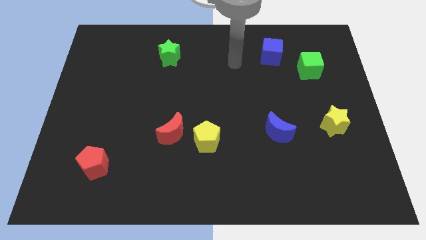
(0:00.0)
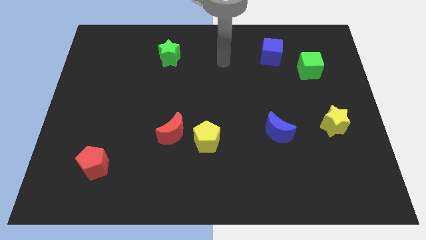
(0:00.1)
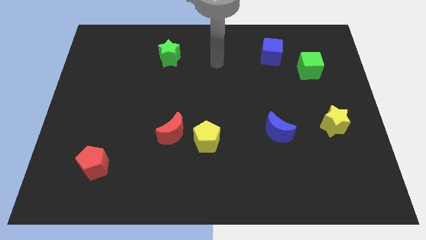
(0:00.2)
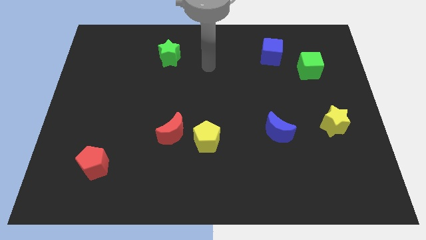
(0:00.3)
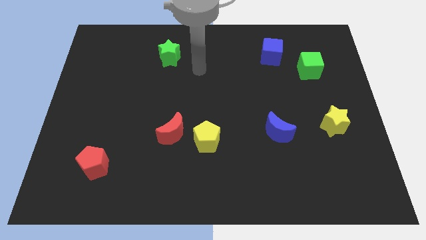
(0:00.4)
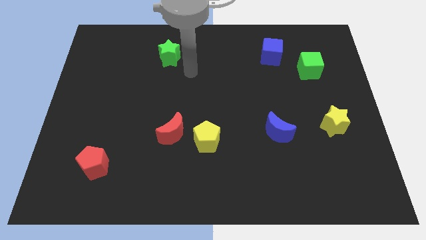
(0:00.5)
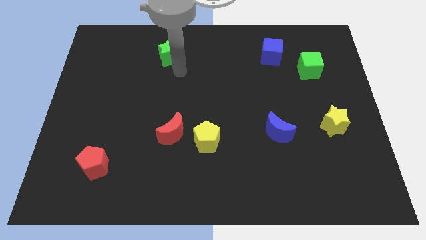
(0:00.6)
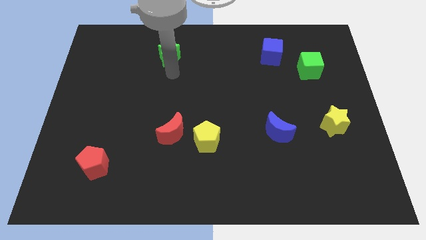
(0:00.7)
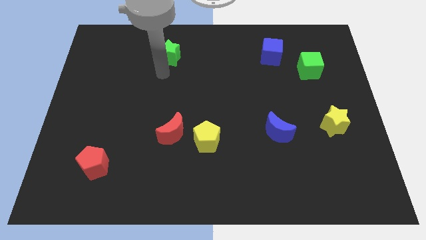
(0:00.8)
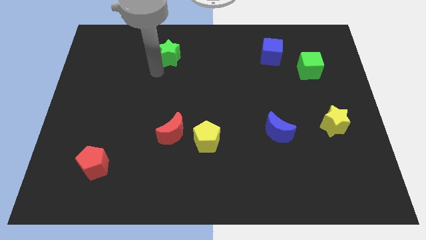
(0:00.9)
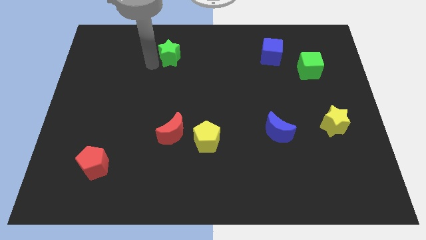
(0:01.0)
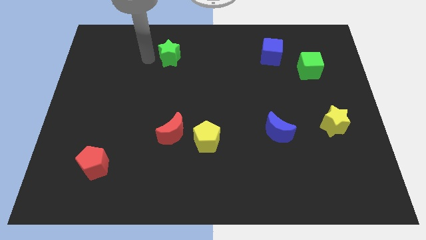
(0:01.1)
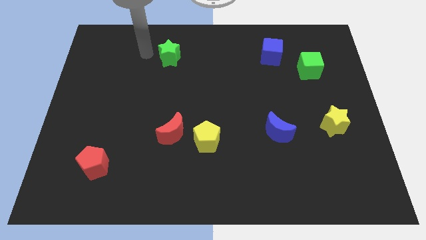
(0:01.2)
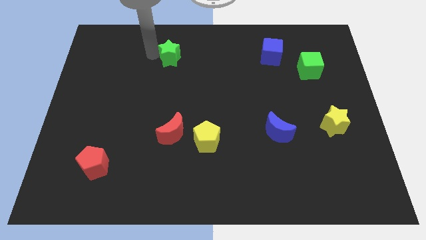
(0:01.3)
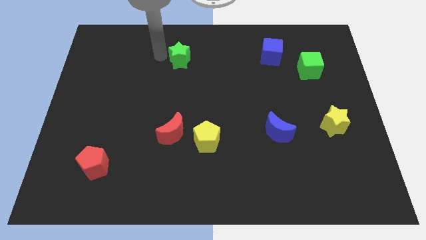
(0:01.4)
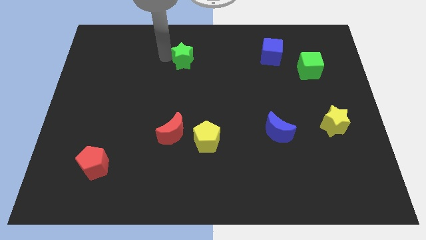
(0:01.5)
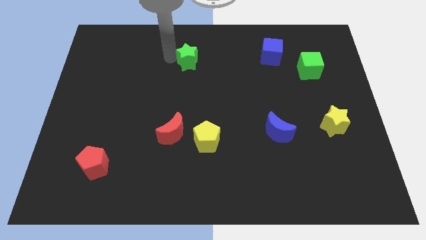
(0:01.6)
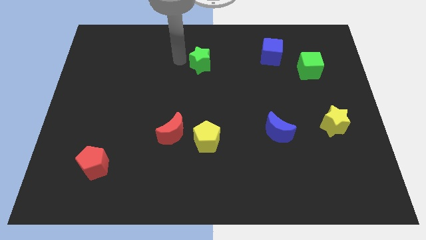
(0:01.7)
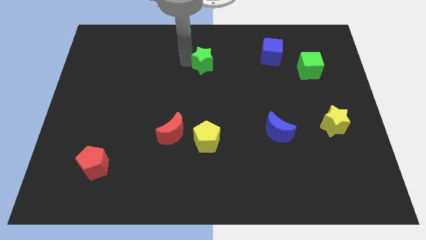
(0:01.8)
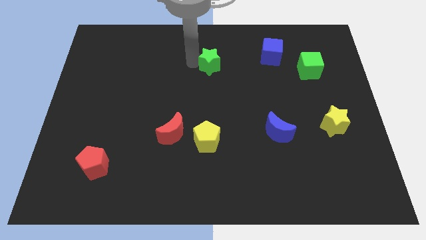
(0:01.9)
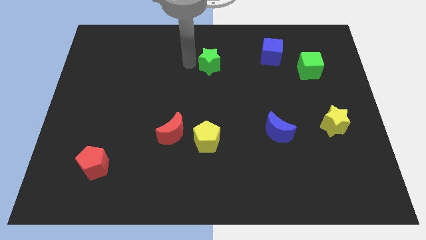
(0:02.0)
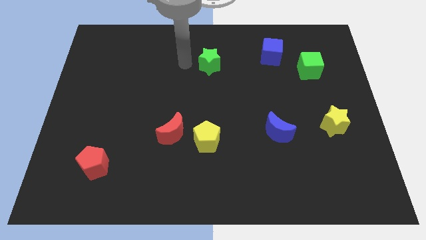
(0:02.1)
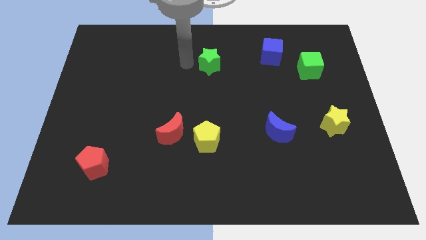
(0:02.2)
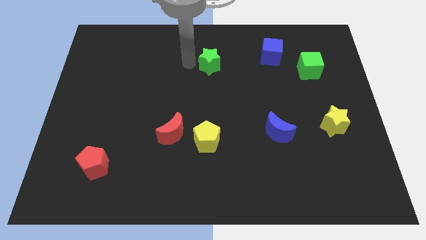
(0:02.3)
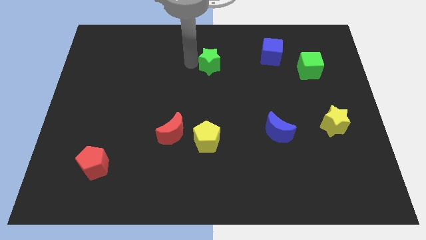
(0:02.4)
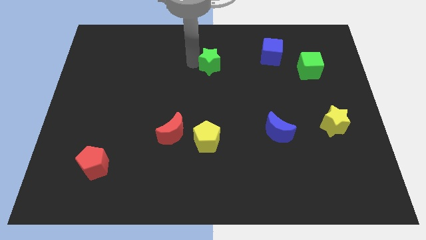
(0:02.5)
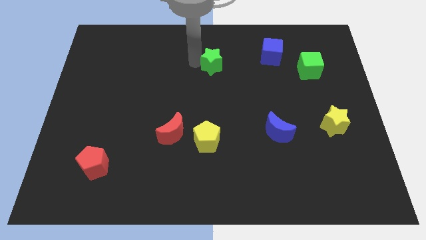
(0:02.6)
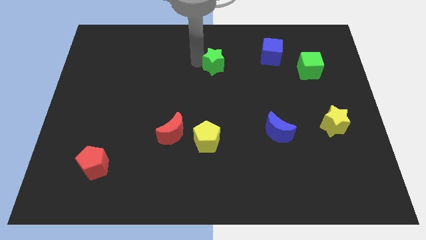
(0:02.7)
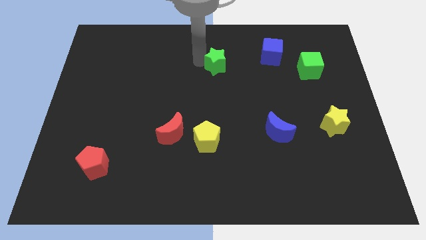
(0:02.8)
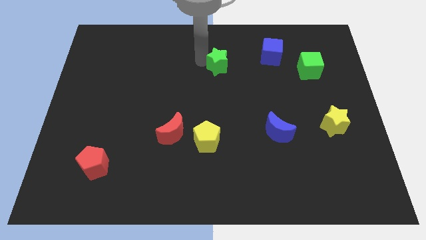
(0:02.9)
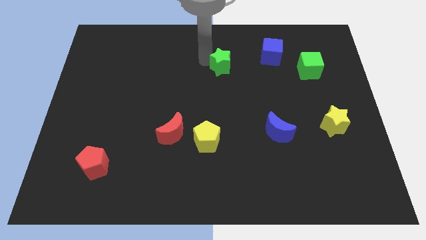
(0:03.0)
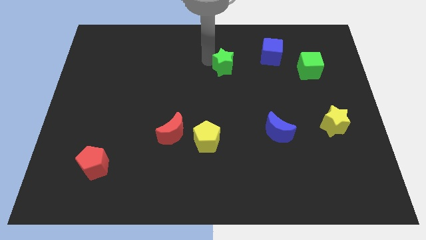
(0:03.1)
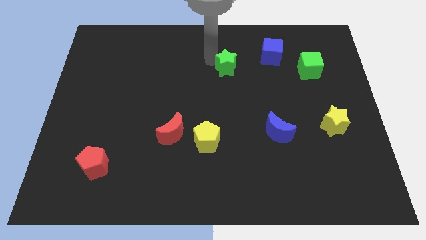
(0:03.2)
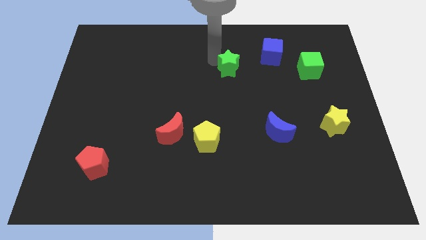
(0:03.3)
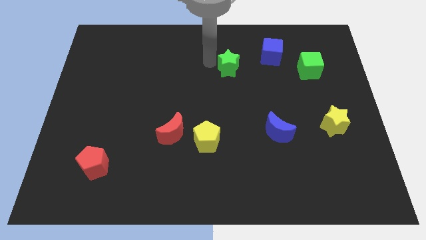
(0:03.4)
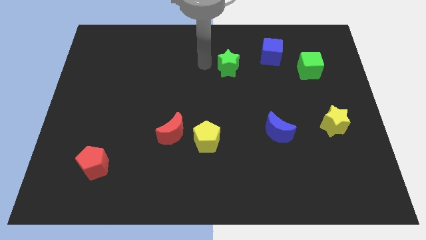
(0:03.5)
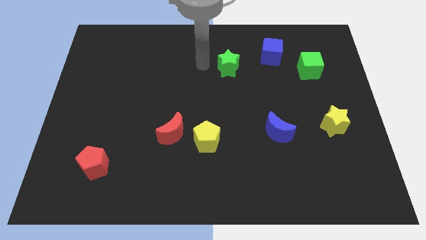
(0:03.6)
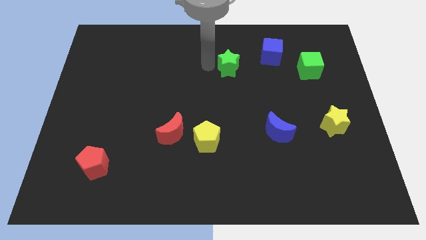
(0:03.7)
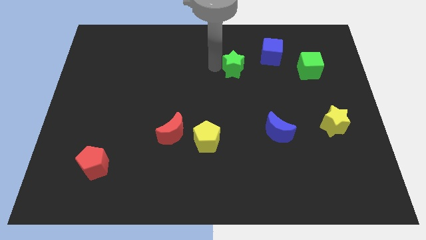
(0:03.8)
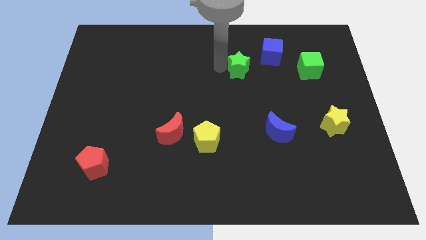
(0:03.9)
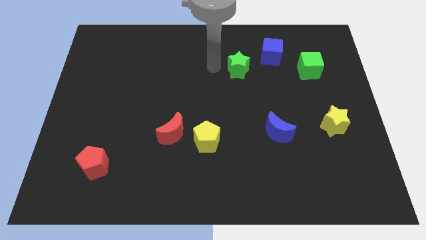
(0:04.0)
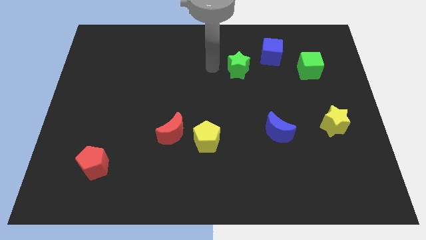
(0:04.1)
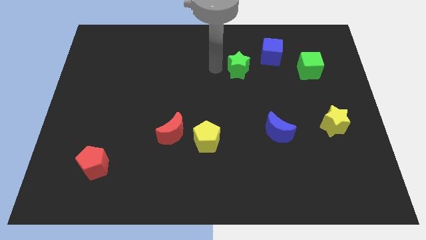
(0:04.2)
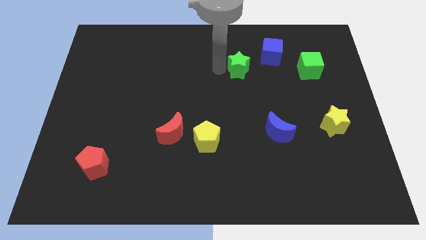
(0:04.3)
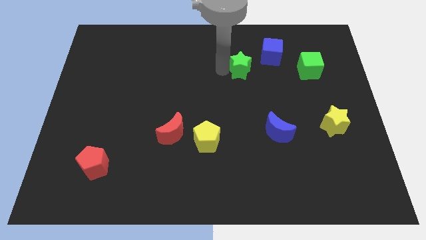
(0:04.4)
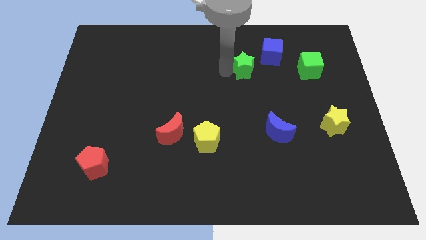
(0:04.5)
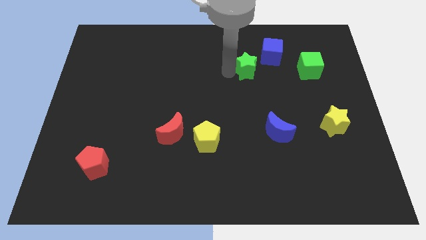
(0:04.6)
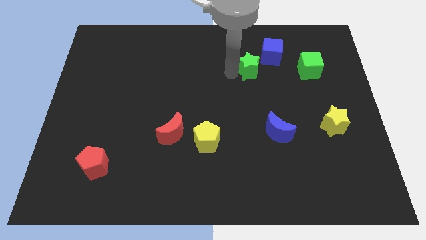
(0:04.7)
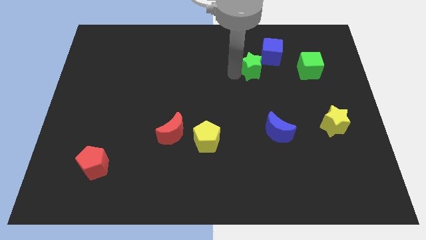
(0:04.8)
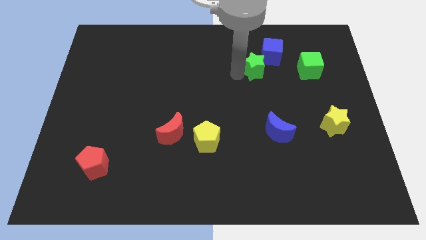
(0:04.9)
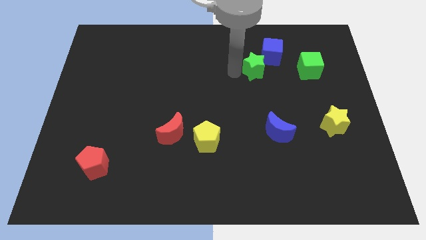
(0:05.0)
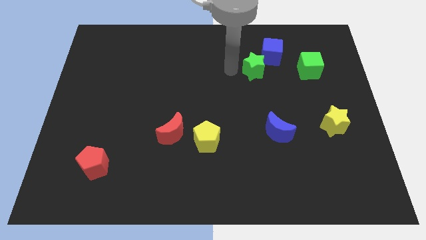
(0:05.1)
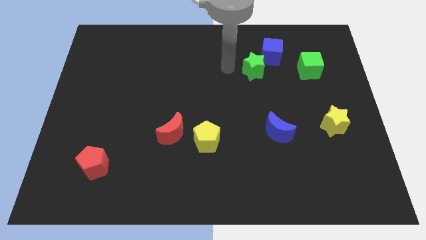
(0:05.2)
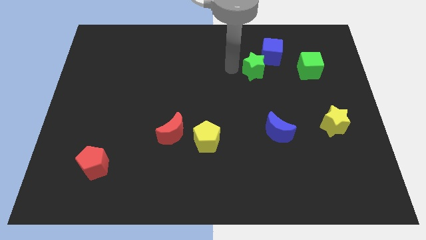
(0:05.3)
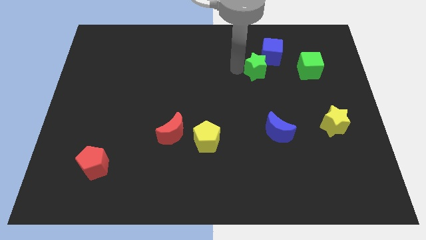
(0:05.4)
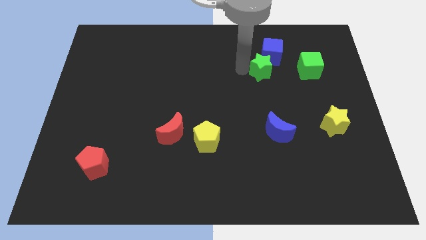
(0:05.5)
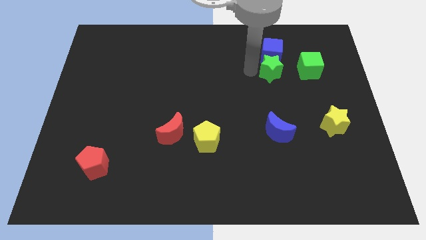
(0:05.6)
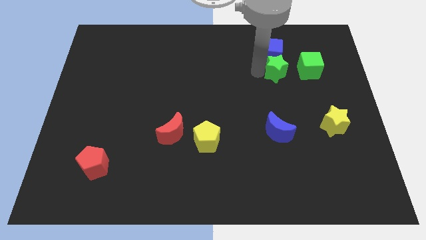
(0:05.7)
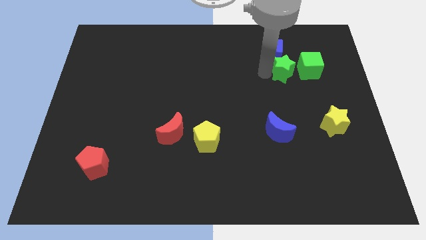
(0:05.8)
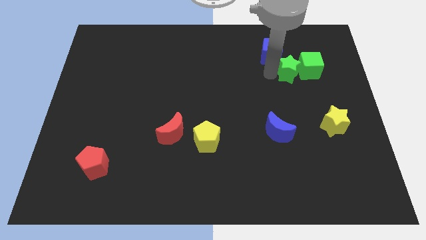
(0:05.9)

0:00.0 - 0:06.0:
slide the green star close to the green cube

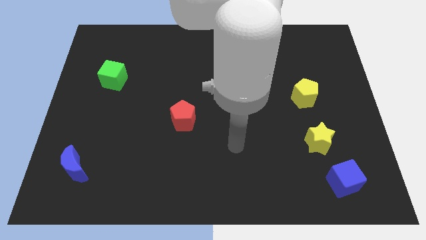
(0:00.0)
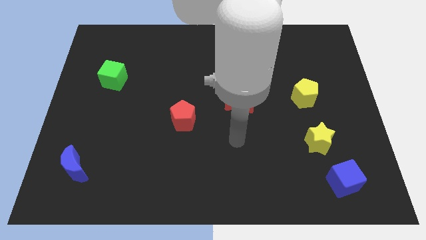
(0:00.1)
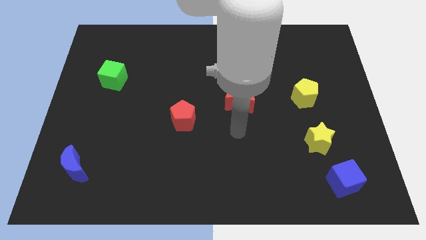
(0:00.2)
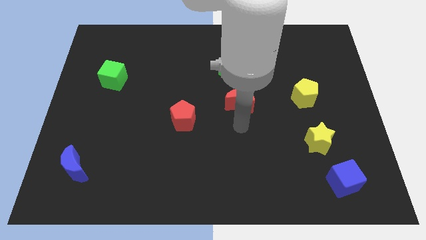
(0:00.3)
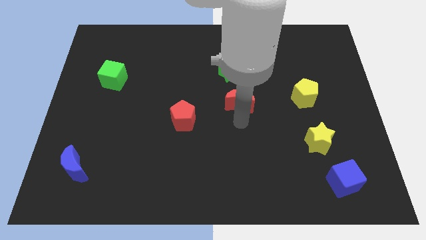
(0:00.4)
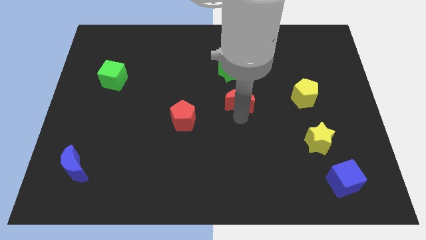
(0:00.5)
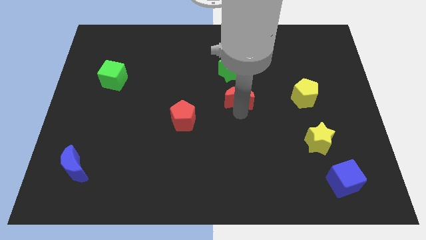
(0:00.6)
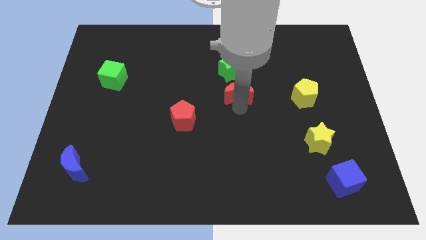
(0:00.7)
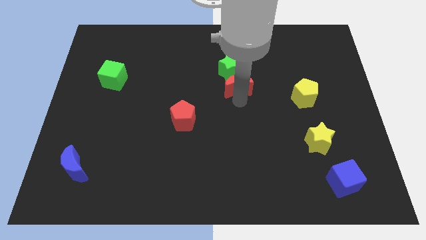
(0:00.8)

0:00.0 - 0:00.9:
slide the red moon towards the green star
